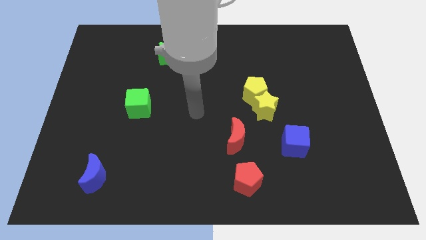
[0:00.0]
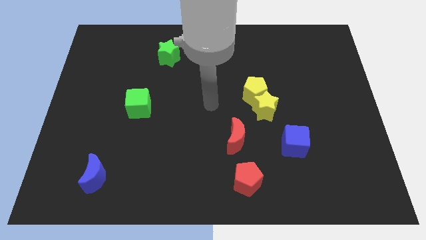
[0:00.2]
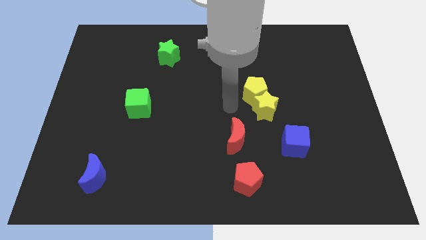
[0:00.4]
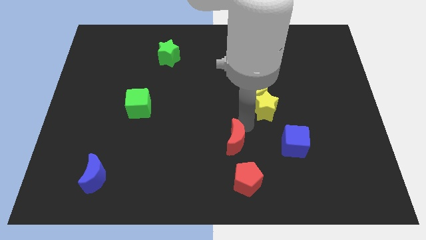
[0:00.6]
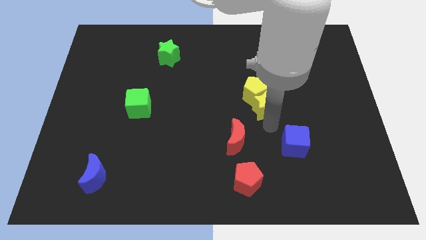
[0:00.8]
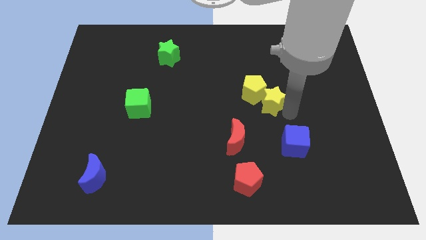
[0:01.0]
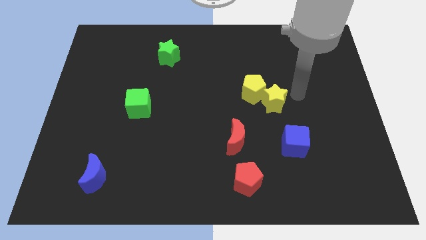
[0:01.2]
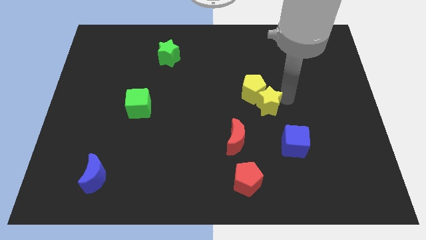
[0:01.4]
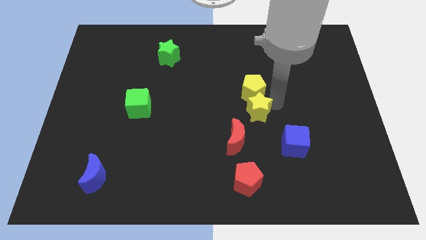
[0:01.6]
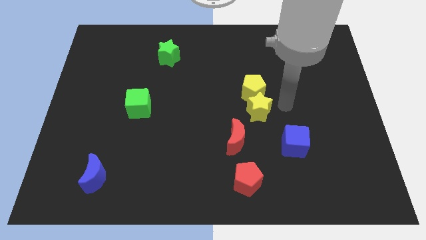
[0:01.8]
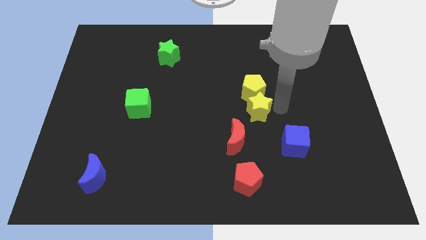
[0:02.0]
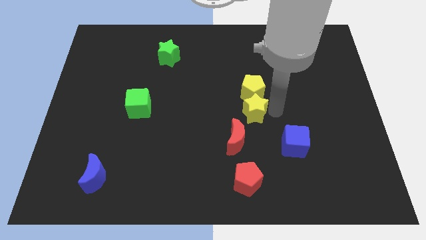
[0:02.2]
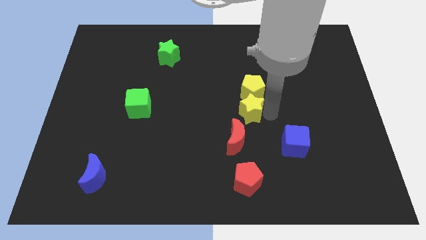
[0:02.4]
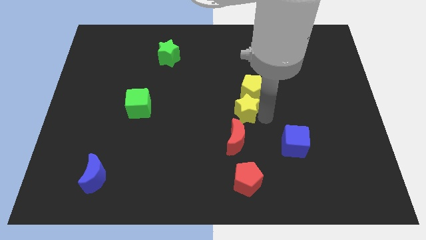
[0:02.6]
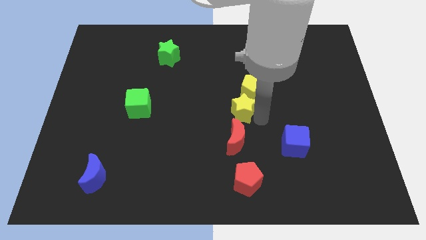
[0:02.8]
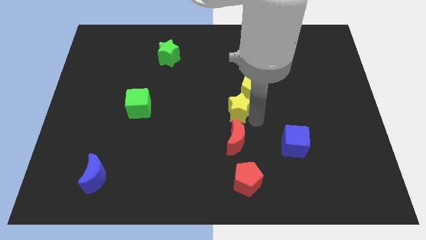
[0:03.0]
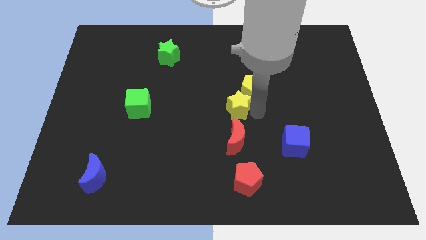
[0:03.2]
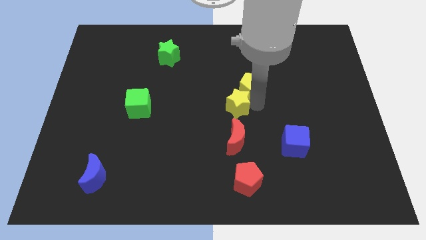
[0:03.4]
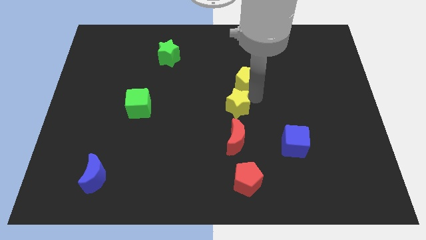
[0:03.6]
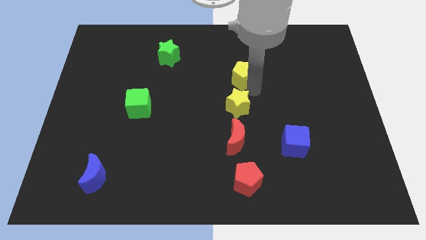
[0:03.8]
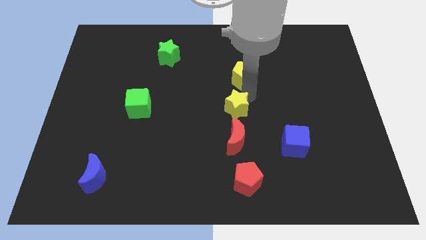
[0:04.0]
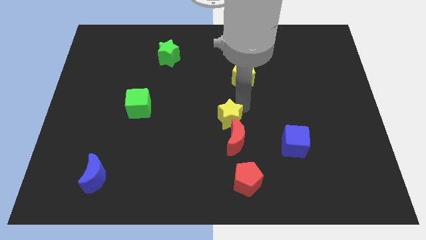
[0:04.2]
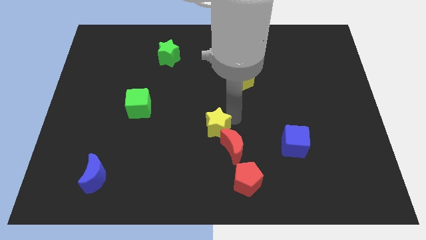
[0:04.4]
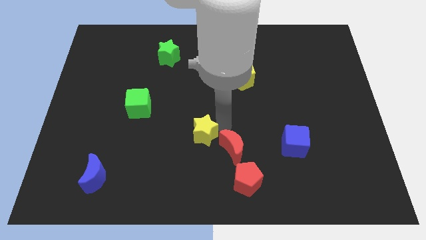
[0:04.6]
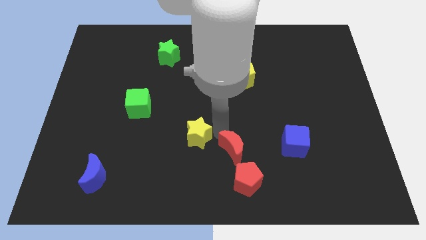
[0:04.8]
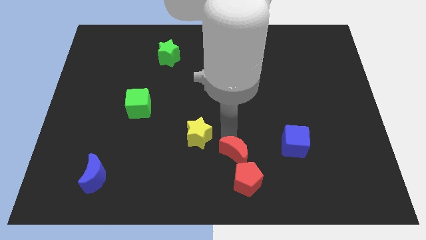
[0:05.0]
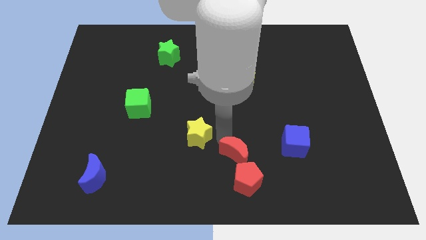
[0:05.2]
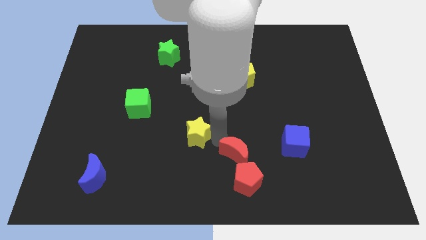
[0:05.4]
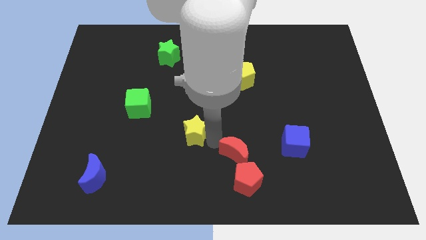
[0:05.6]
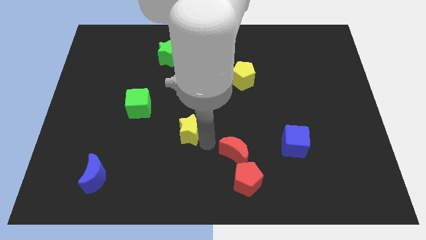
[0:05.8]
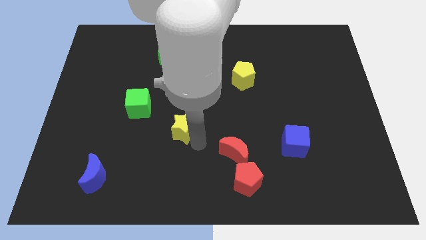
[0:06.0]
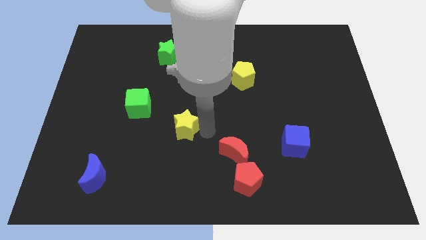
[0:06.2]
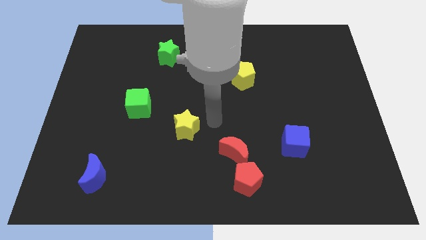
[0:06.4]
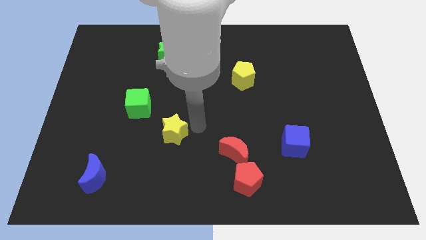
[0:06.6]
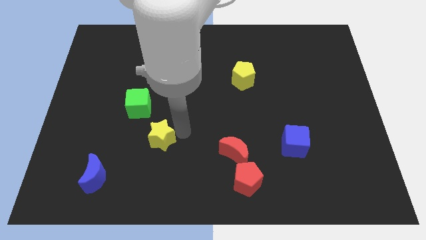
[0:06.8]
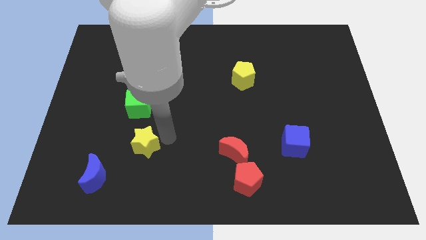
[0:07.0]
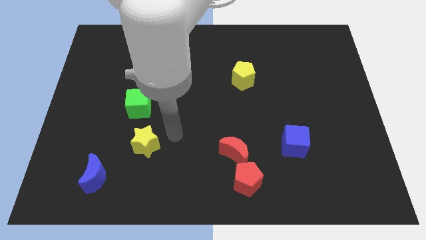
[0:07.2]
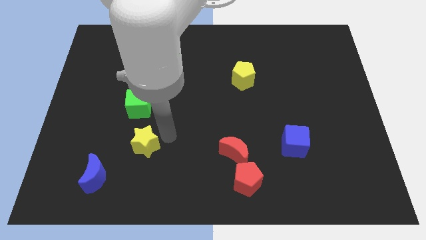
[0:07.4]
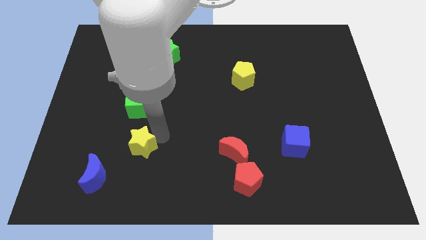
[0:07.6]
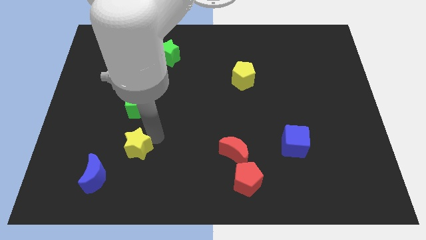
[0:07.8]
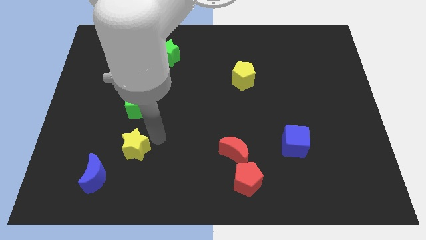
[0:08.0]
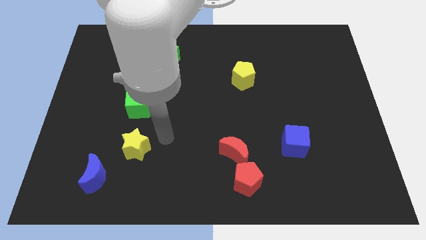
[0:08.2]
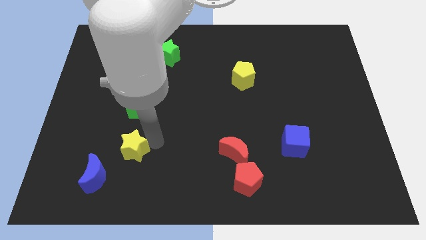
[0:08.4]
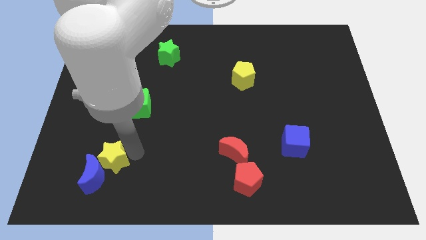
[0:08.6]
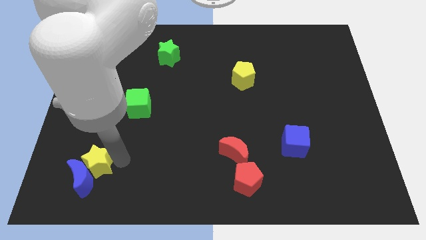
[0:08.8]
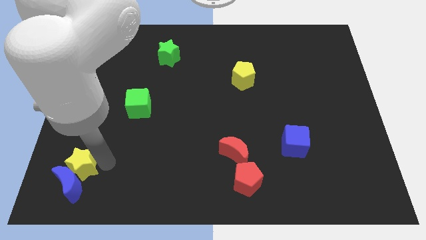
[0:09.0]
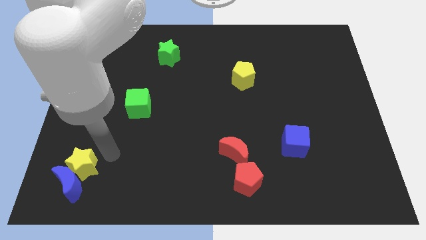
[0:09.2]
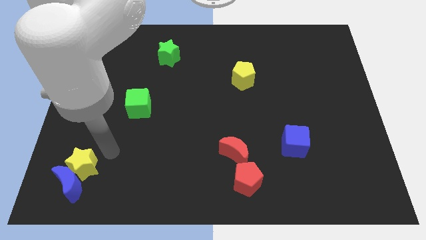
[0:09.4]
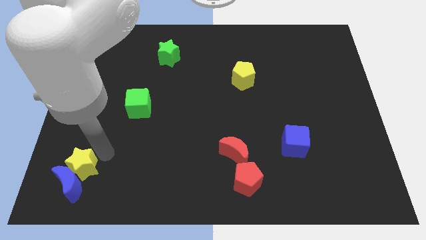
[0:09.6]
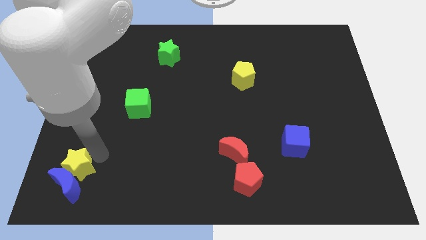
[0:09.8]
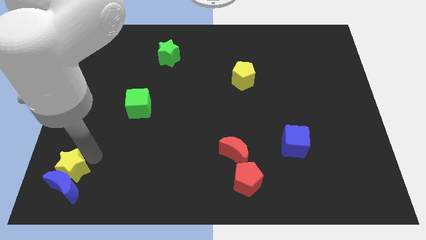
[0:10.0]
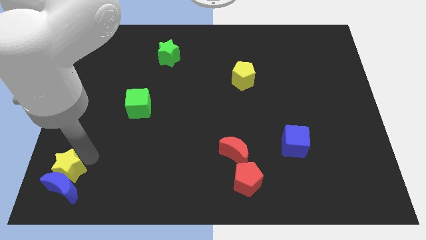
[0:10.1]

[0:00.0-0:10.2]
slide the yellow star to the bottom left corner

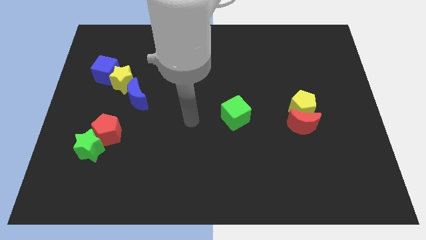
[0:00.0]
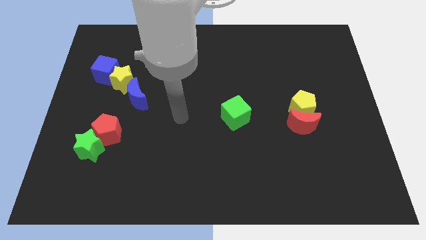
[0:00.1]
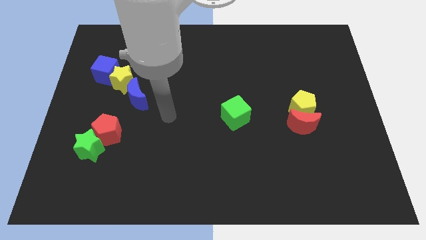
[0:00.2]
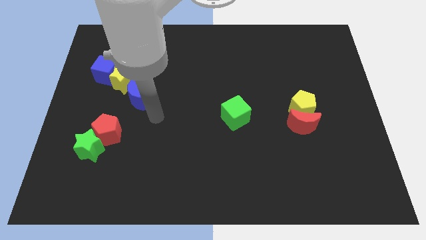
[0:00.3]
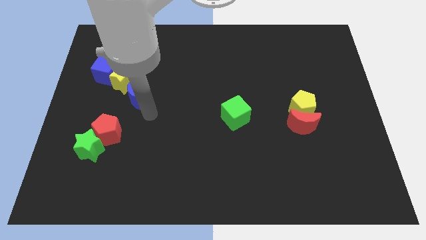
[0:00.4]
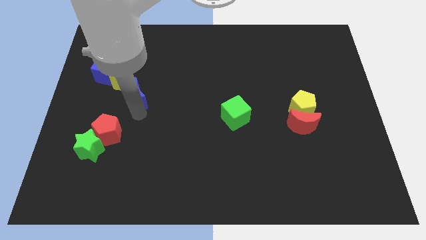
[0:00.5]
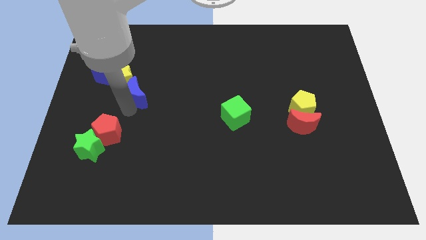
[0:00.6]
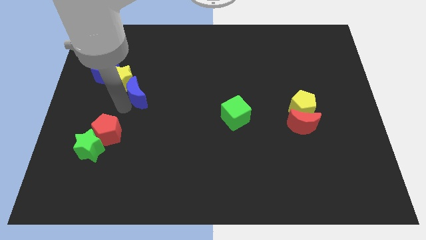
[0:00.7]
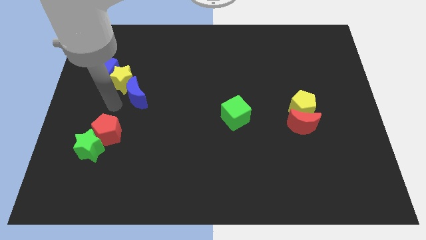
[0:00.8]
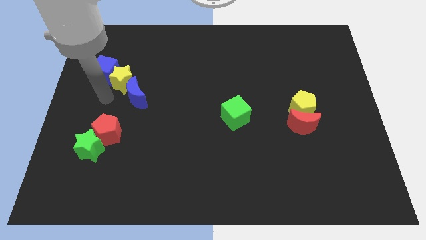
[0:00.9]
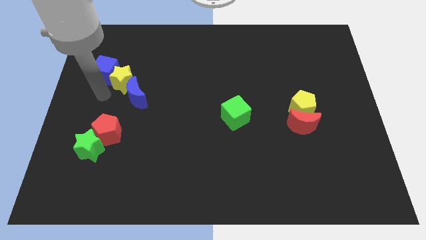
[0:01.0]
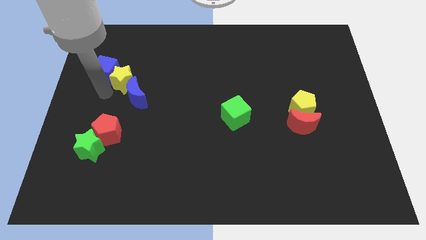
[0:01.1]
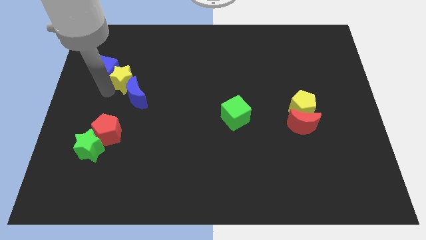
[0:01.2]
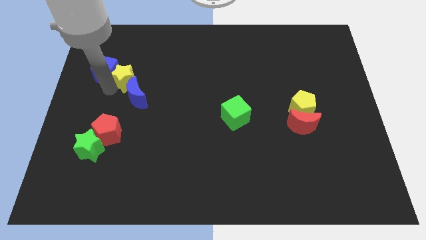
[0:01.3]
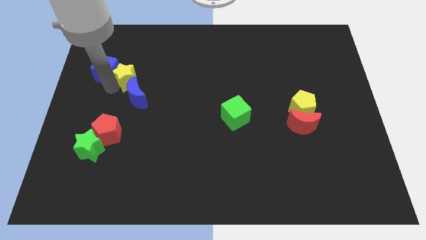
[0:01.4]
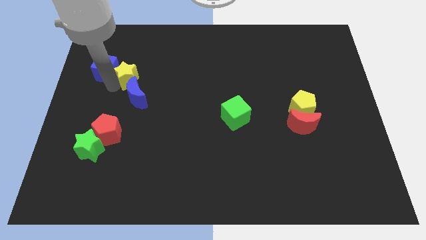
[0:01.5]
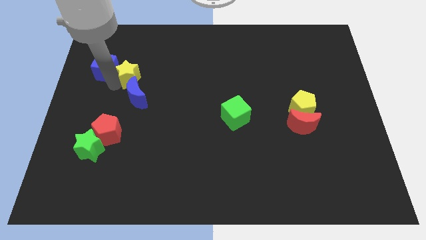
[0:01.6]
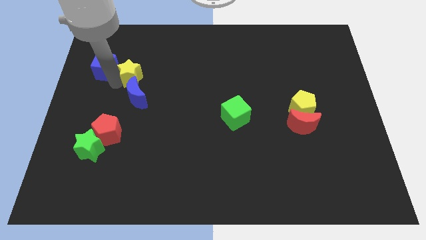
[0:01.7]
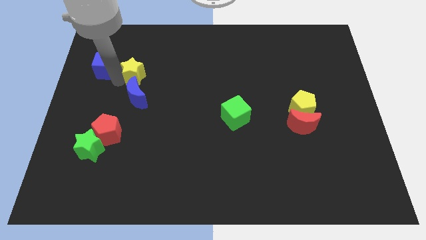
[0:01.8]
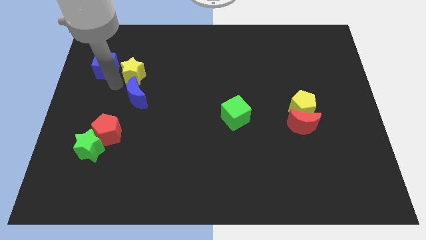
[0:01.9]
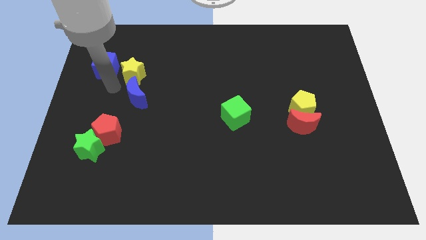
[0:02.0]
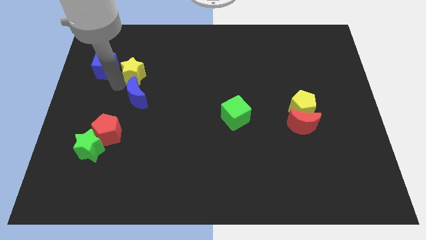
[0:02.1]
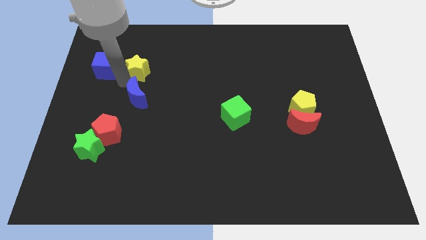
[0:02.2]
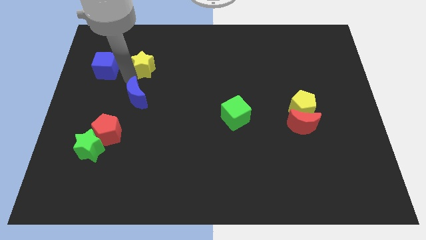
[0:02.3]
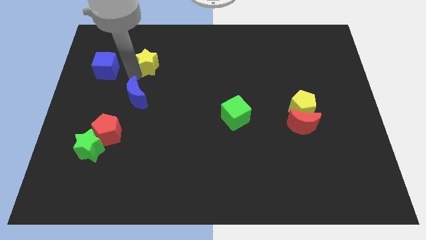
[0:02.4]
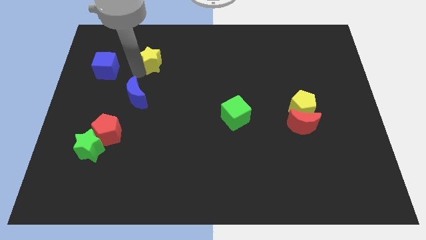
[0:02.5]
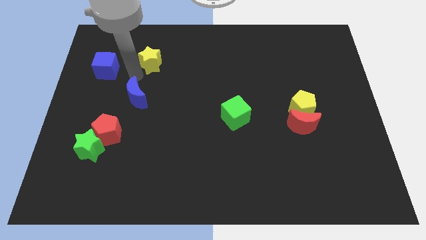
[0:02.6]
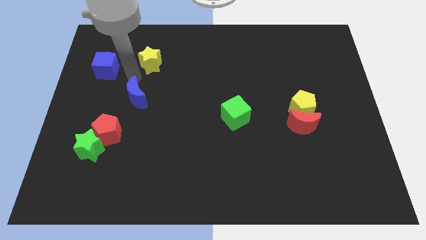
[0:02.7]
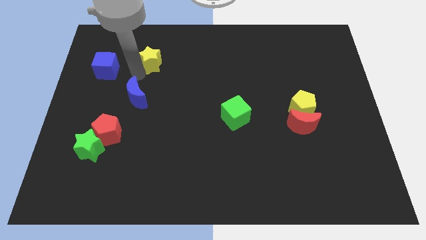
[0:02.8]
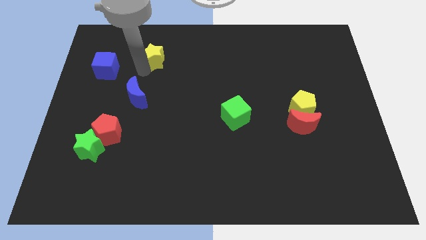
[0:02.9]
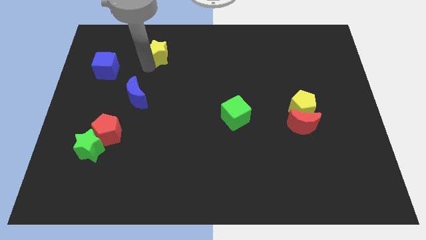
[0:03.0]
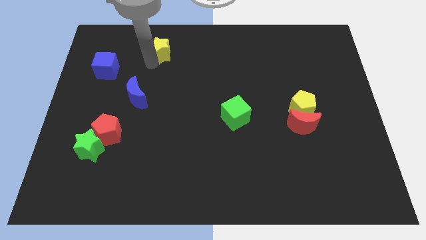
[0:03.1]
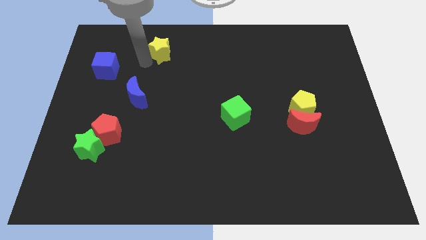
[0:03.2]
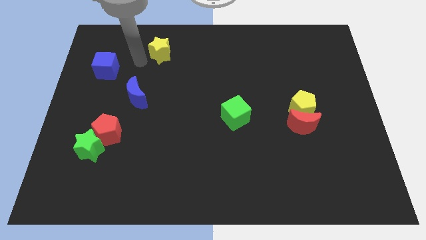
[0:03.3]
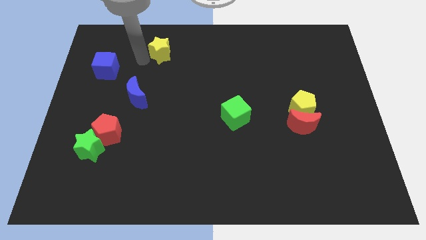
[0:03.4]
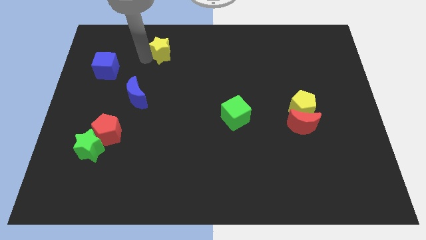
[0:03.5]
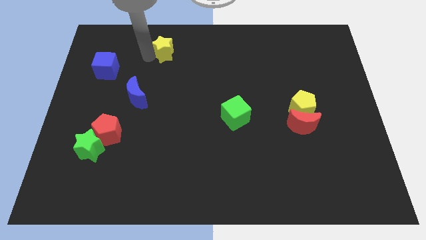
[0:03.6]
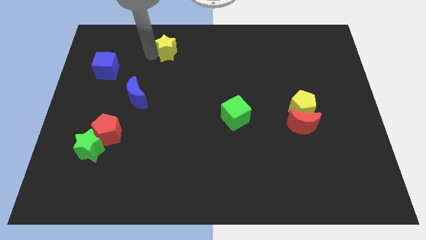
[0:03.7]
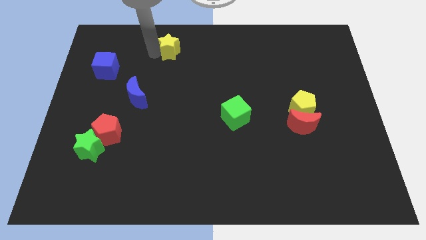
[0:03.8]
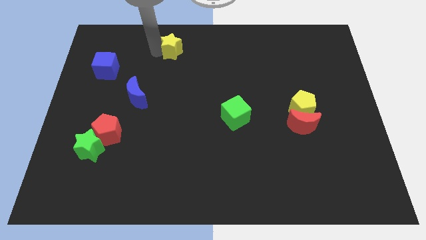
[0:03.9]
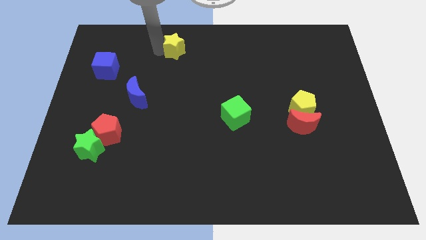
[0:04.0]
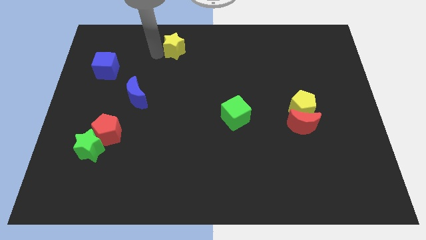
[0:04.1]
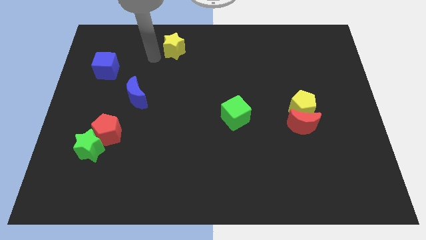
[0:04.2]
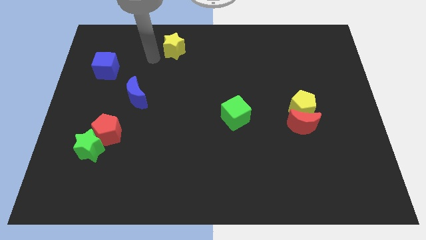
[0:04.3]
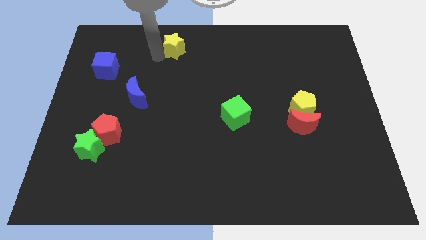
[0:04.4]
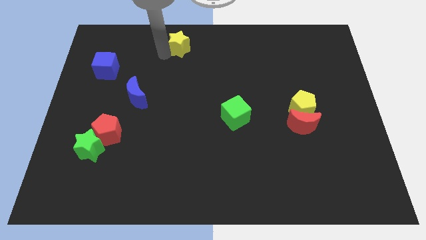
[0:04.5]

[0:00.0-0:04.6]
move the yellow star to the top
